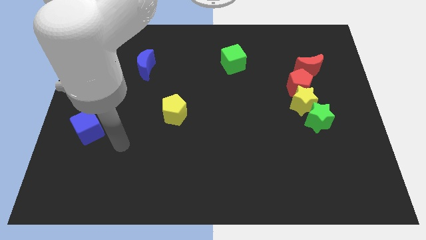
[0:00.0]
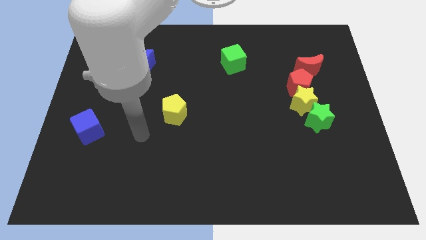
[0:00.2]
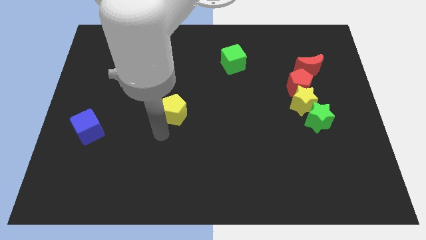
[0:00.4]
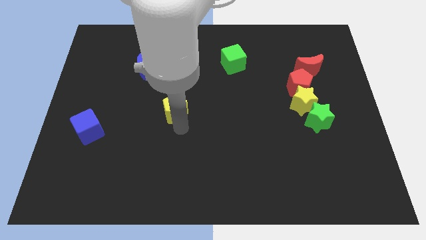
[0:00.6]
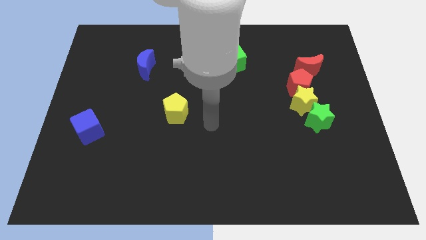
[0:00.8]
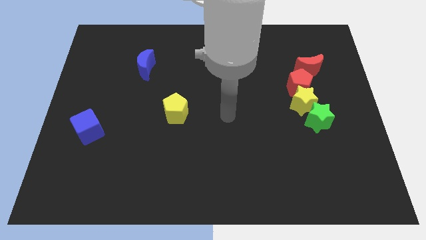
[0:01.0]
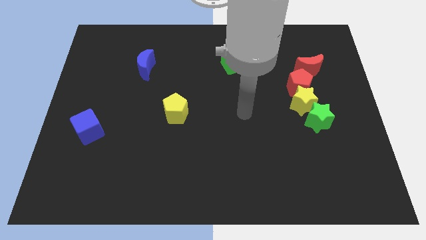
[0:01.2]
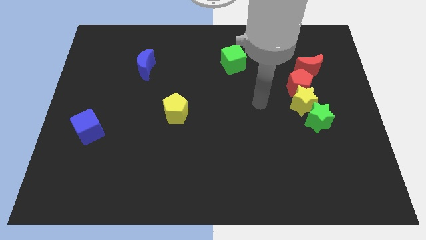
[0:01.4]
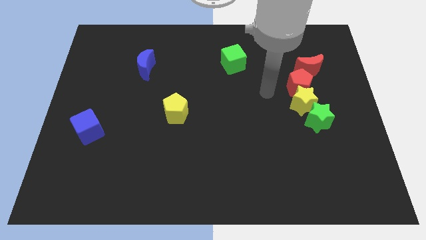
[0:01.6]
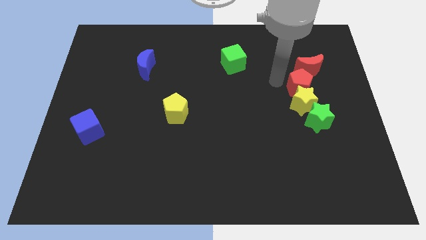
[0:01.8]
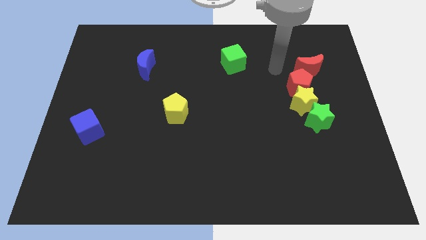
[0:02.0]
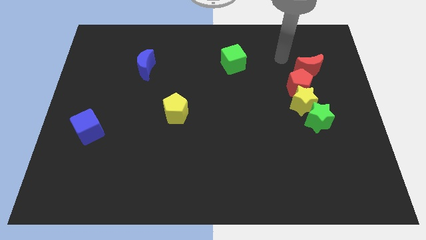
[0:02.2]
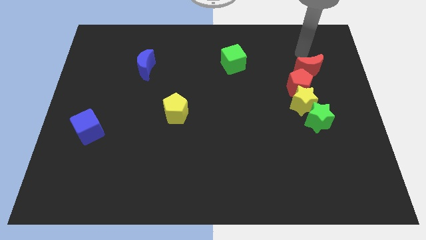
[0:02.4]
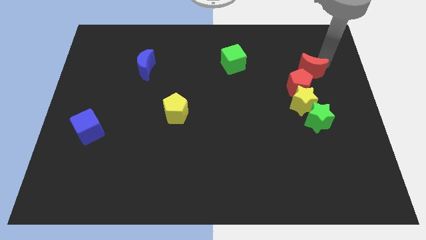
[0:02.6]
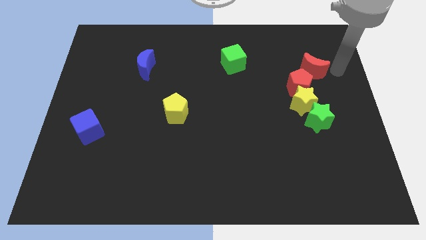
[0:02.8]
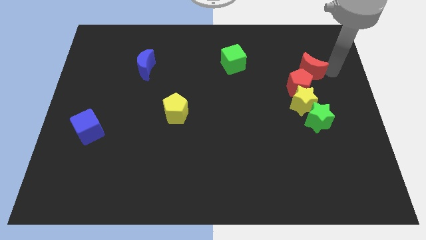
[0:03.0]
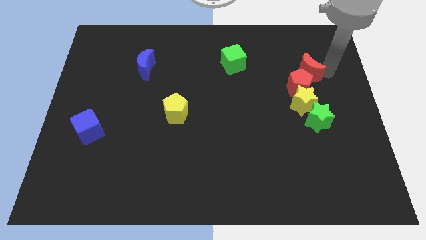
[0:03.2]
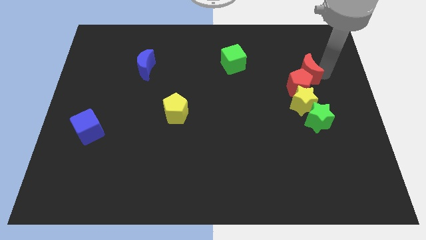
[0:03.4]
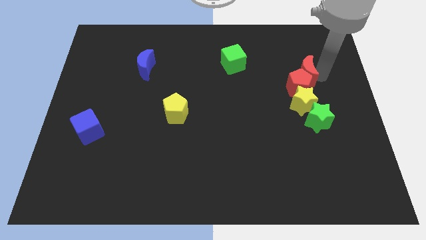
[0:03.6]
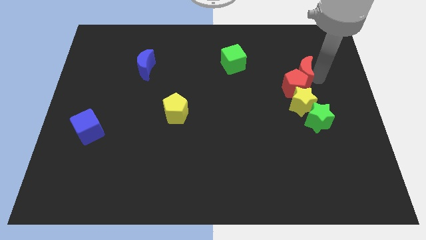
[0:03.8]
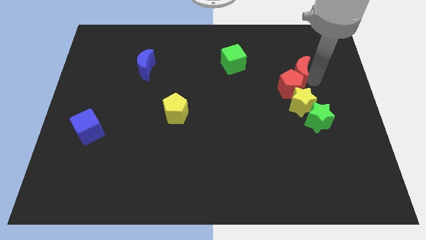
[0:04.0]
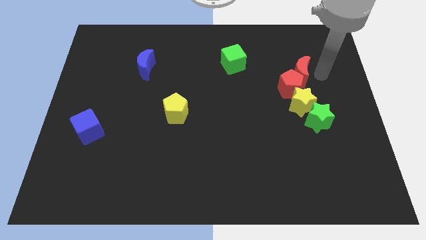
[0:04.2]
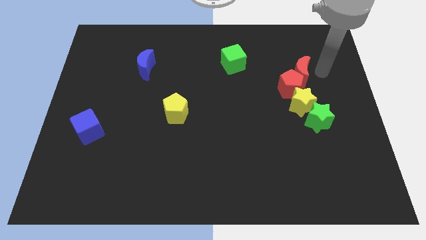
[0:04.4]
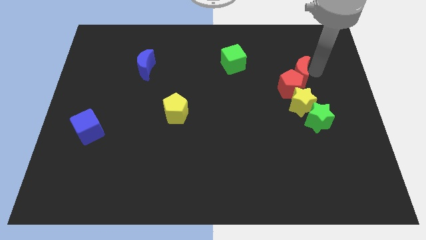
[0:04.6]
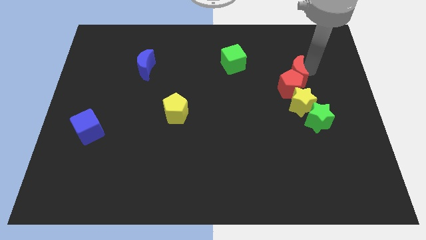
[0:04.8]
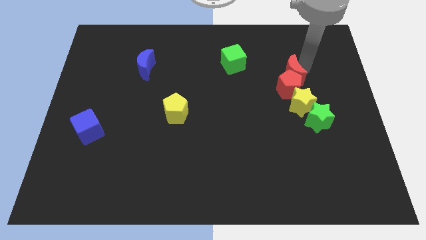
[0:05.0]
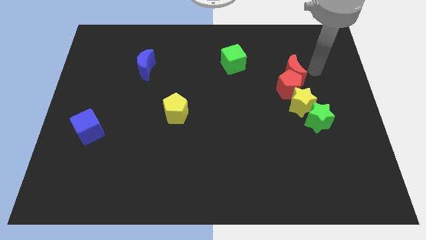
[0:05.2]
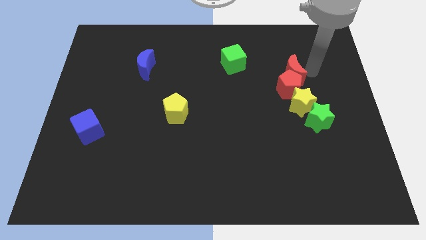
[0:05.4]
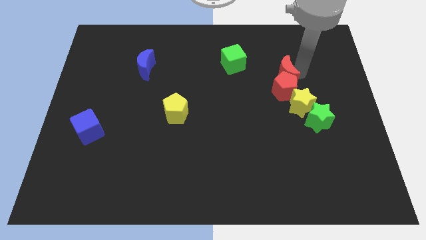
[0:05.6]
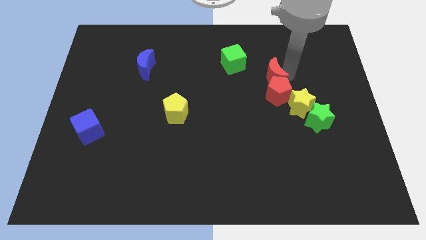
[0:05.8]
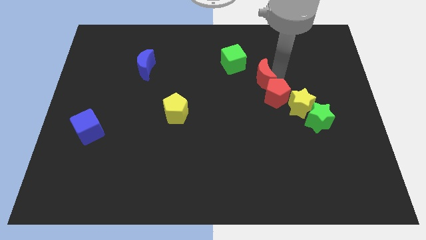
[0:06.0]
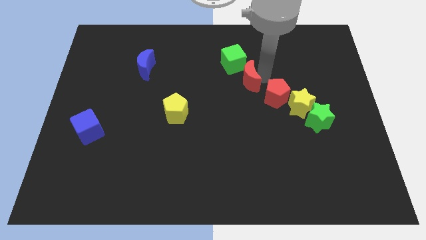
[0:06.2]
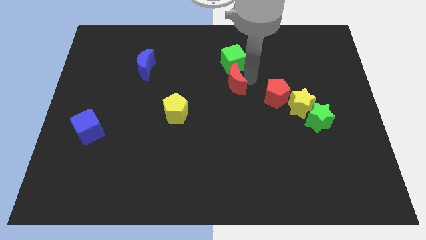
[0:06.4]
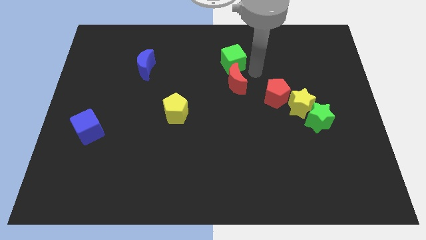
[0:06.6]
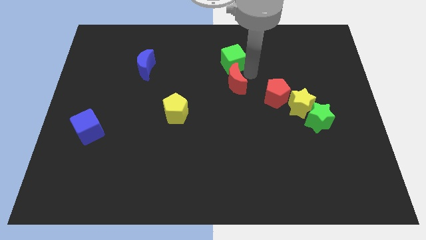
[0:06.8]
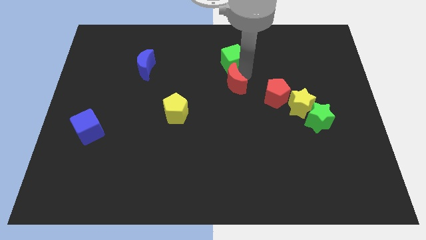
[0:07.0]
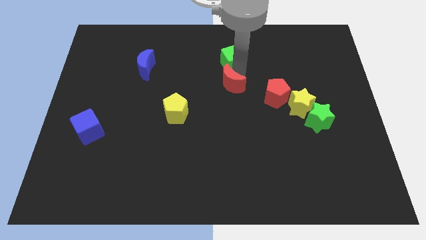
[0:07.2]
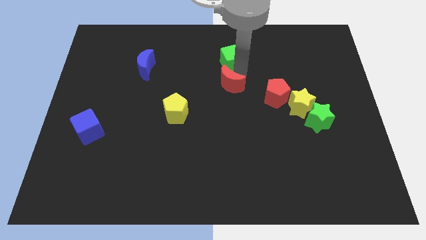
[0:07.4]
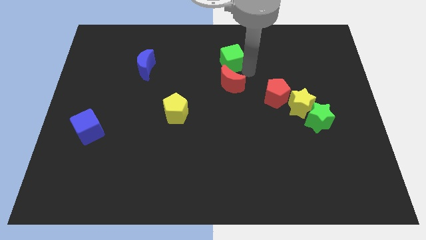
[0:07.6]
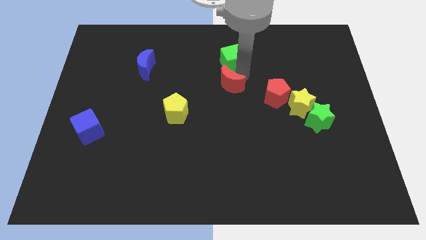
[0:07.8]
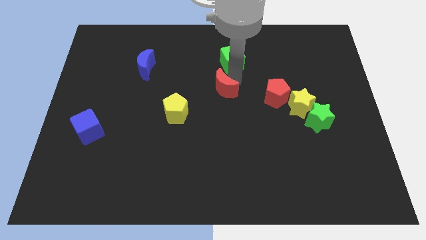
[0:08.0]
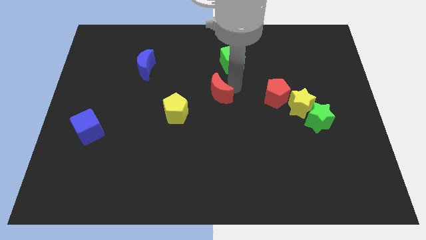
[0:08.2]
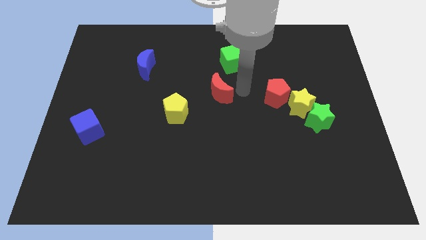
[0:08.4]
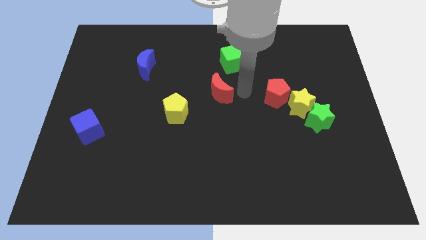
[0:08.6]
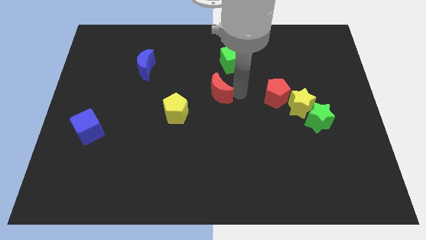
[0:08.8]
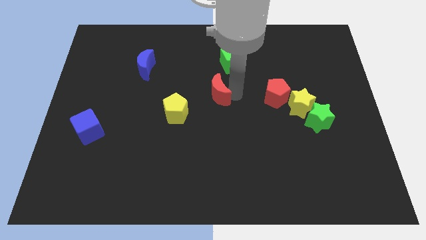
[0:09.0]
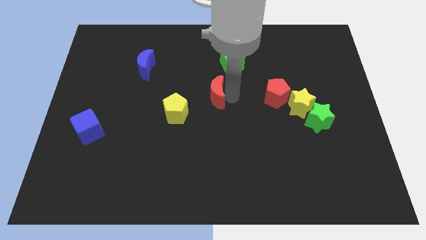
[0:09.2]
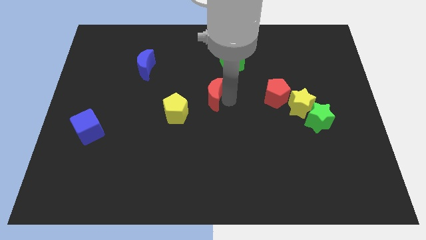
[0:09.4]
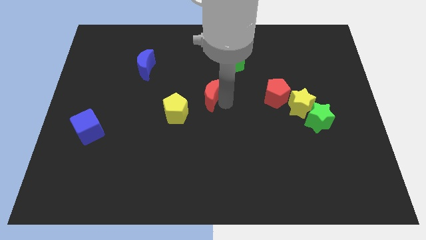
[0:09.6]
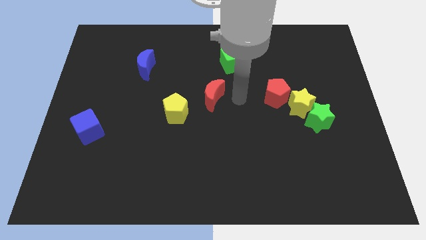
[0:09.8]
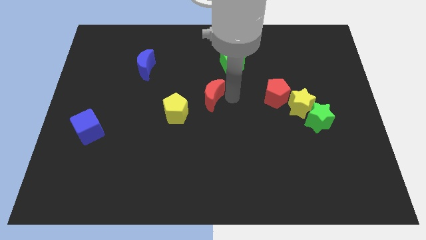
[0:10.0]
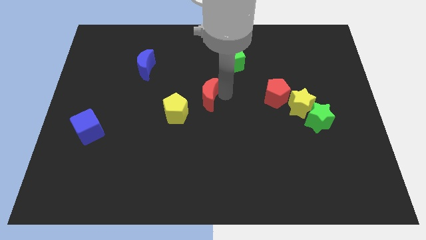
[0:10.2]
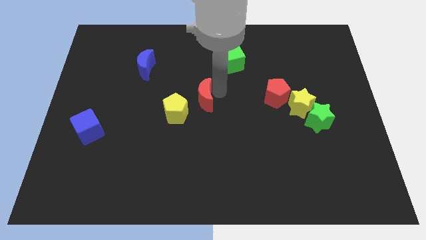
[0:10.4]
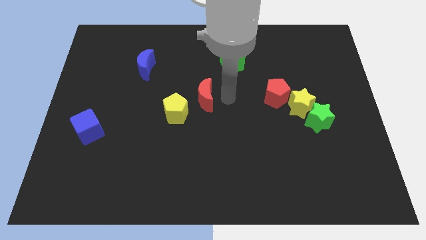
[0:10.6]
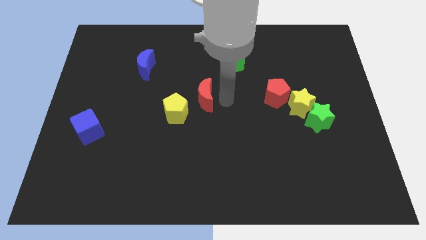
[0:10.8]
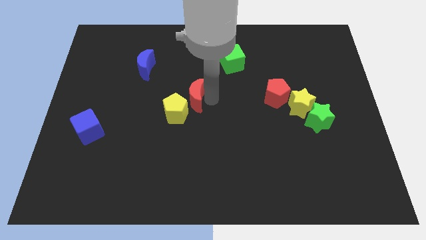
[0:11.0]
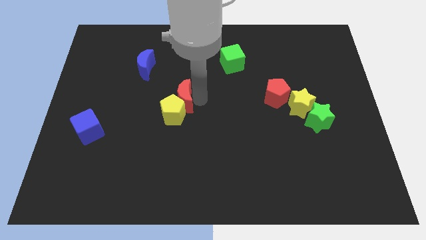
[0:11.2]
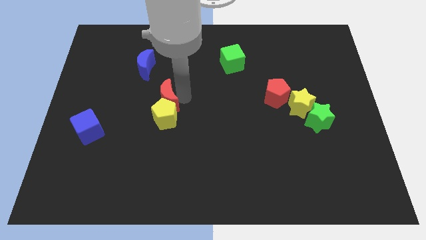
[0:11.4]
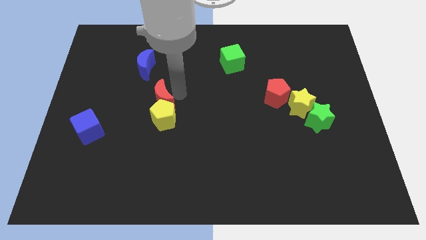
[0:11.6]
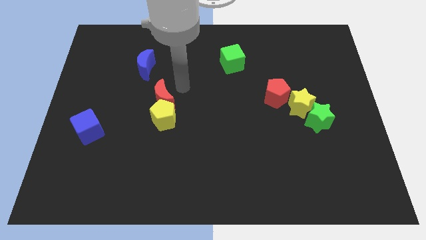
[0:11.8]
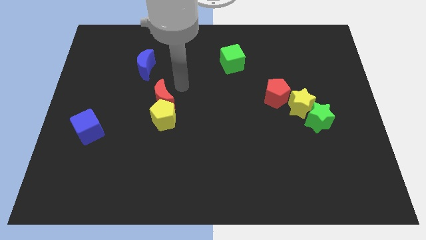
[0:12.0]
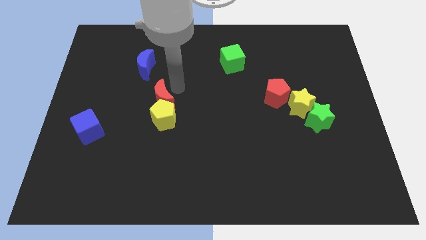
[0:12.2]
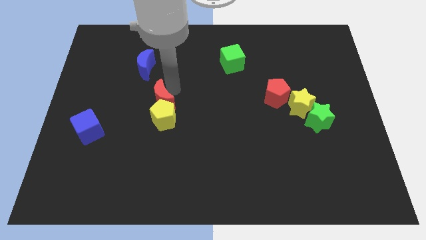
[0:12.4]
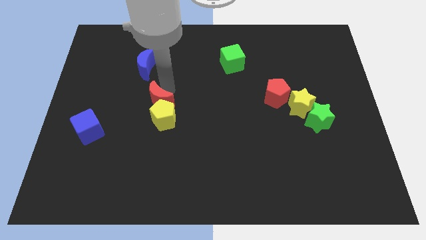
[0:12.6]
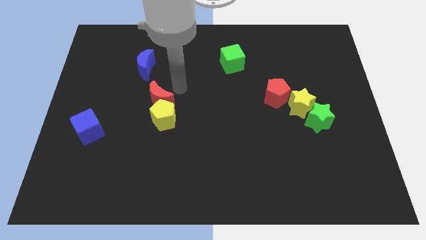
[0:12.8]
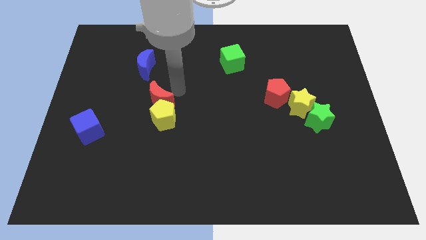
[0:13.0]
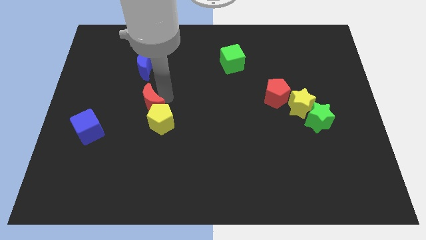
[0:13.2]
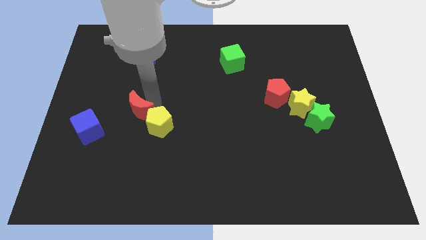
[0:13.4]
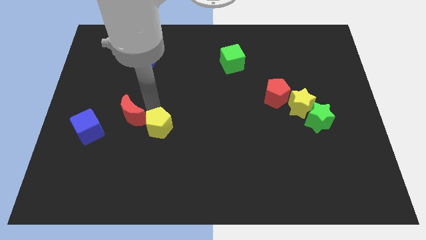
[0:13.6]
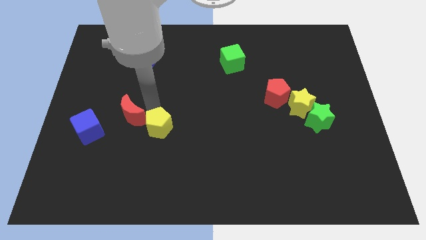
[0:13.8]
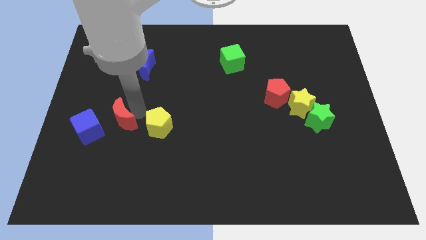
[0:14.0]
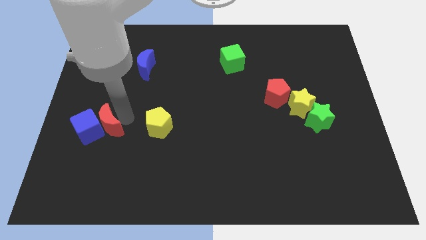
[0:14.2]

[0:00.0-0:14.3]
move the red moon to the blue cube
